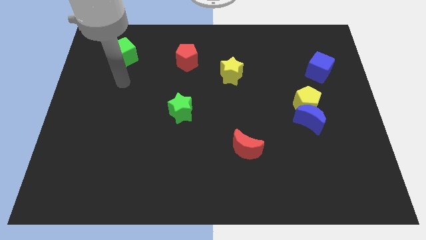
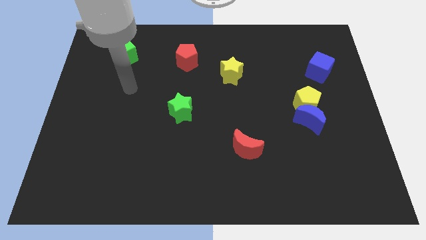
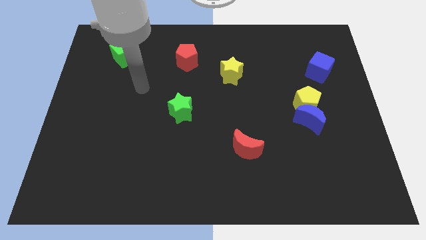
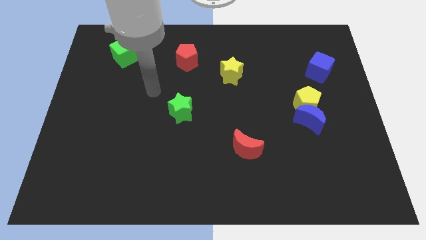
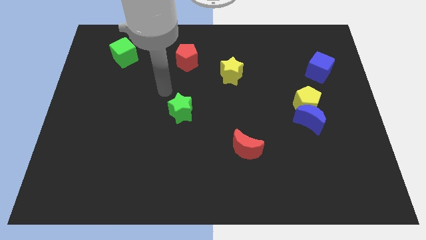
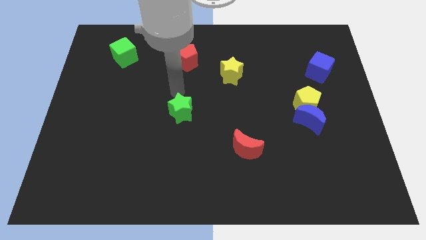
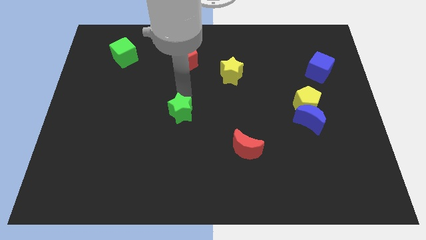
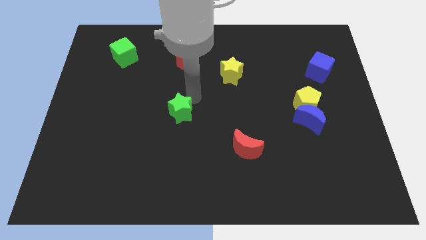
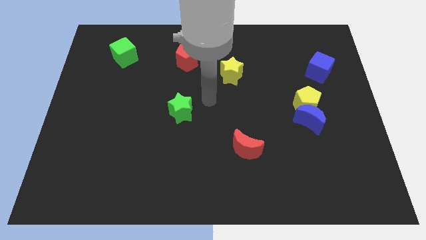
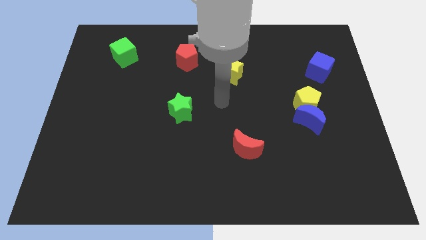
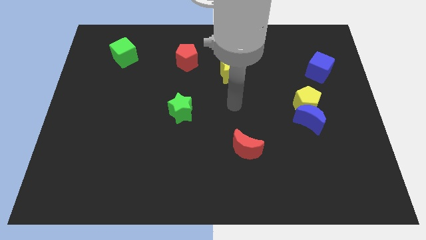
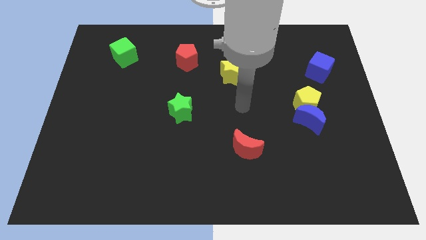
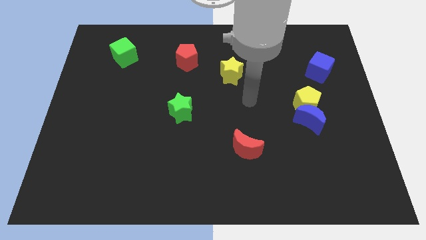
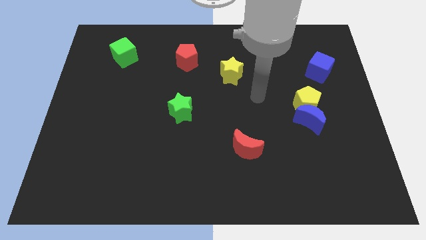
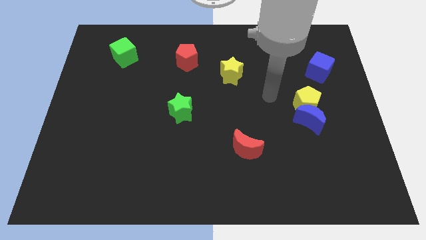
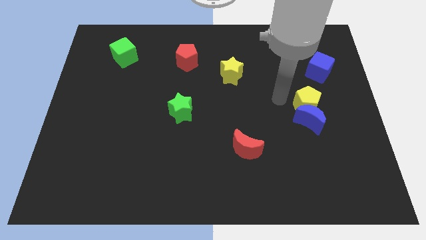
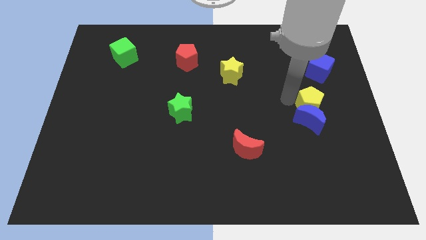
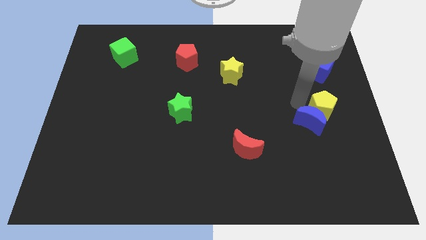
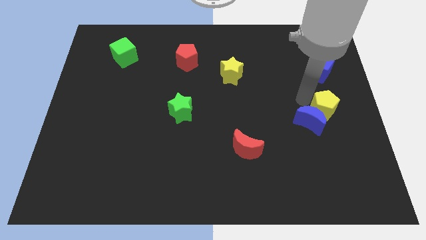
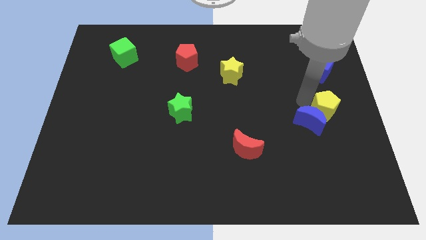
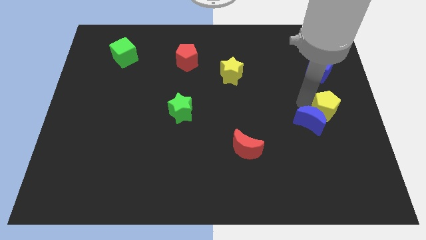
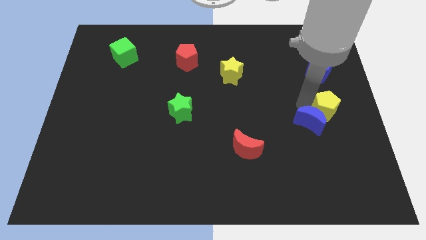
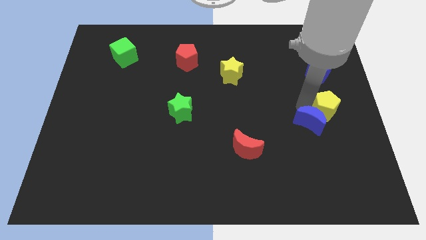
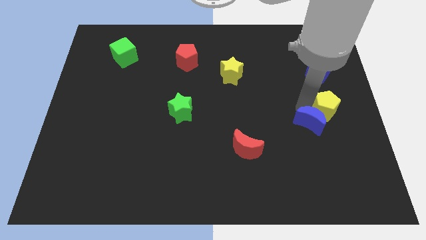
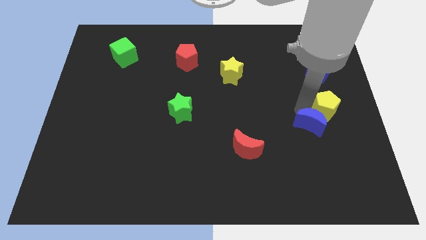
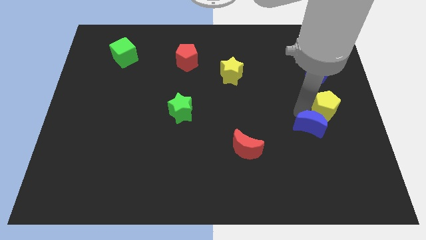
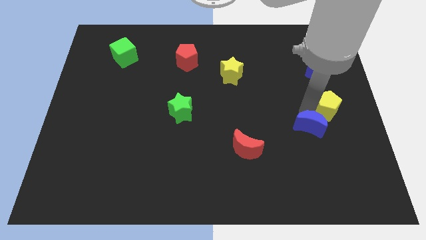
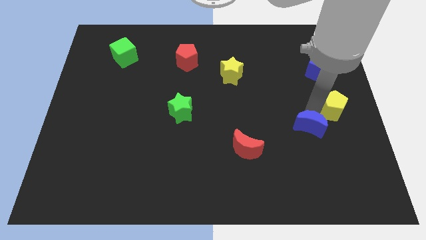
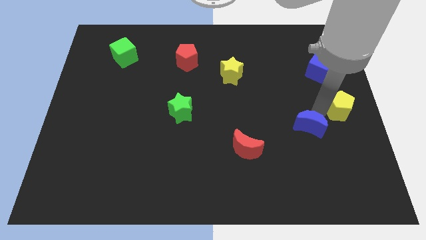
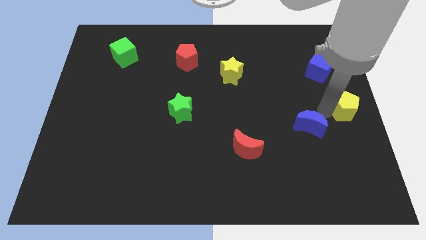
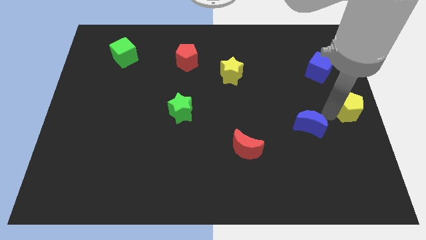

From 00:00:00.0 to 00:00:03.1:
pull the blue moon apart from the yellow pentagon

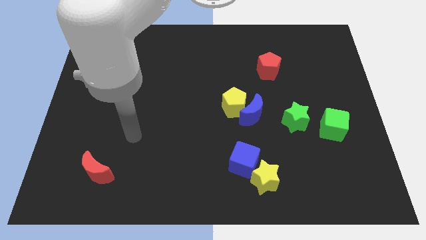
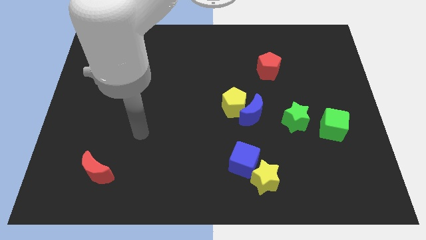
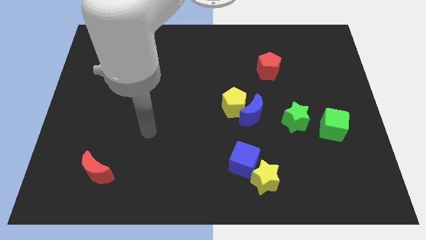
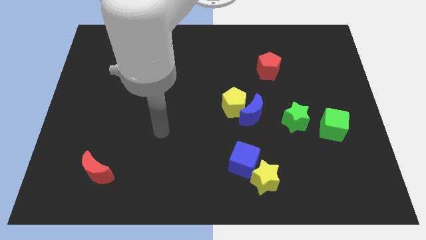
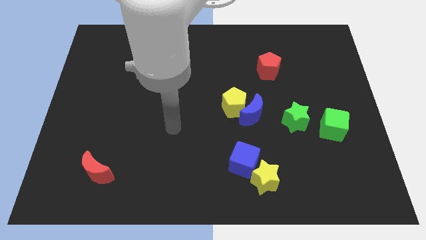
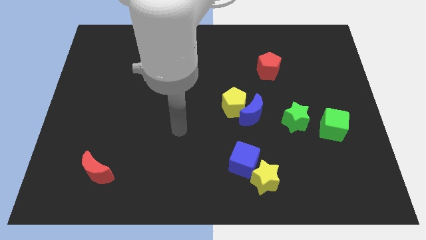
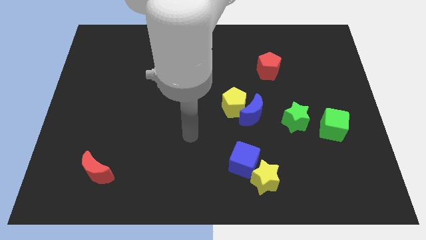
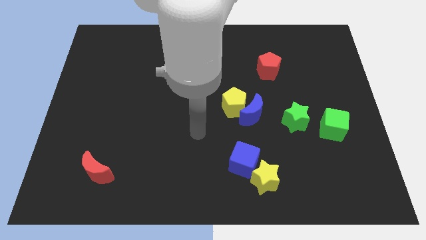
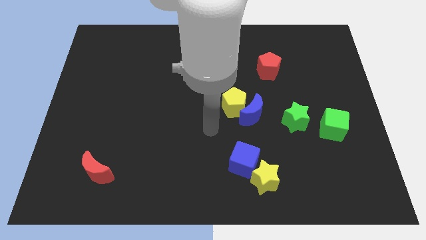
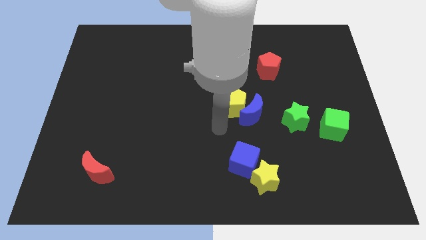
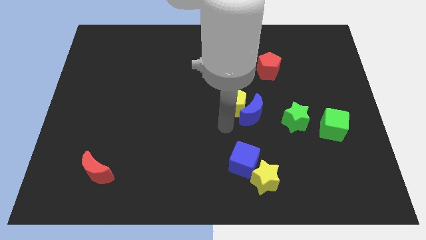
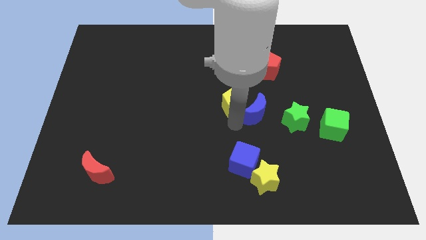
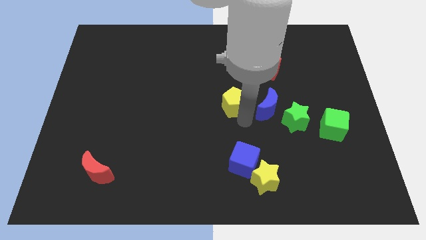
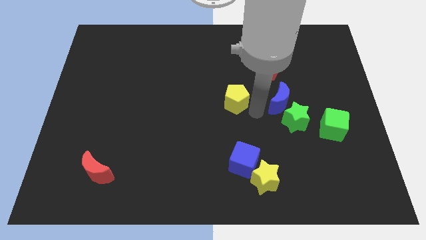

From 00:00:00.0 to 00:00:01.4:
move the yellow pentagon away from the blue moon

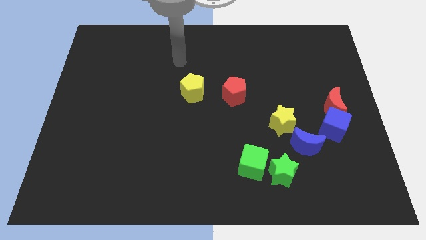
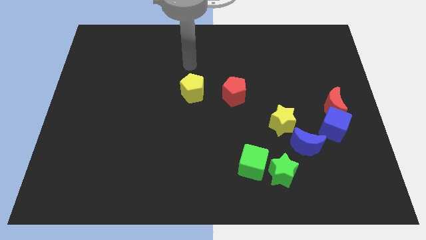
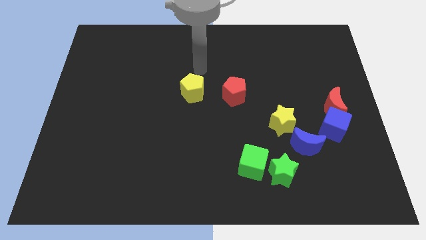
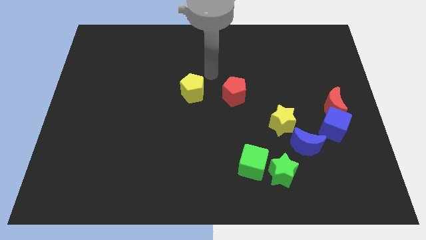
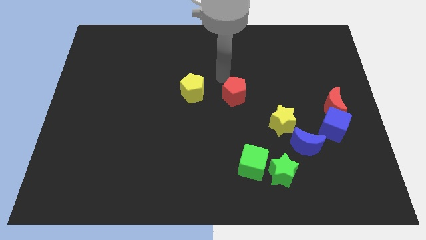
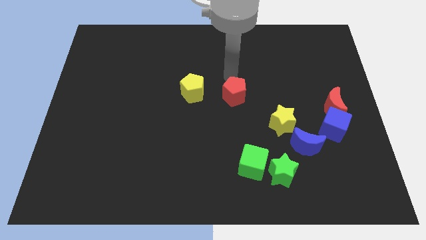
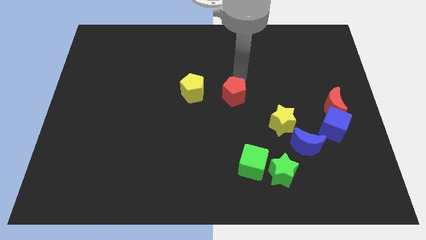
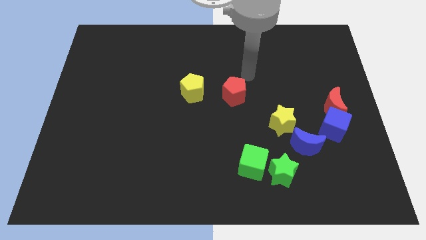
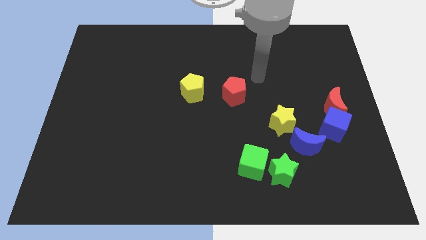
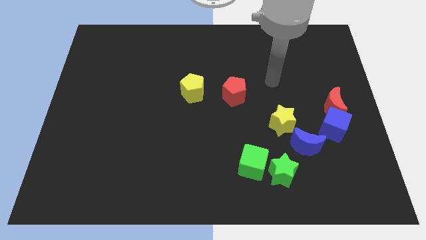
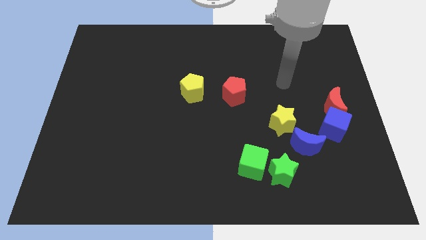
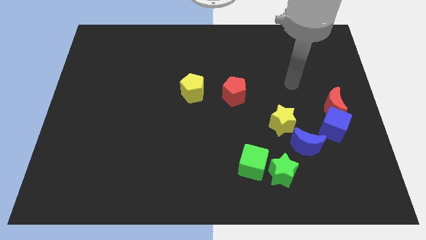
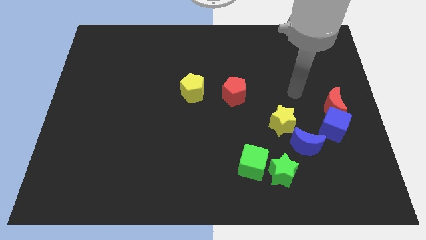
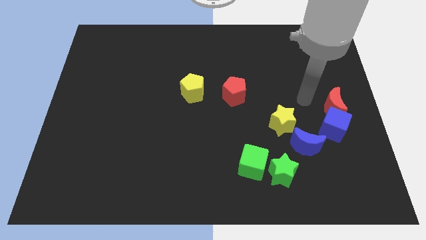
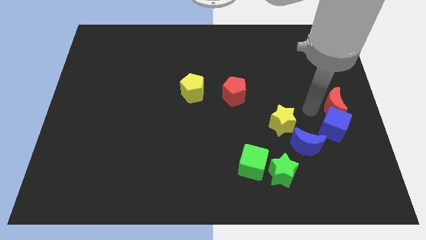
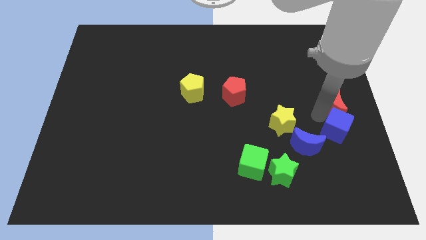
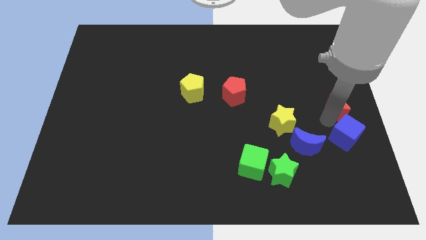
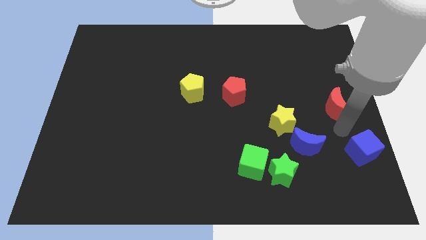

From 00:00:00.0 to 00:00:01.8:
separate the red moon from the blue cube

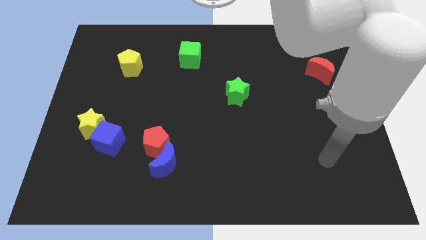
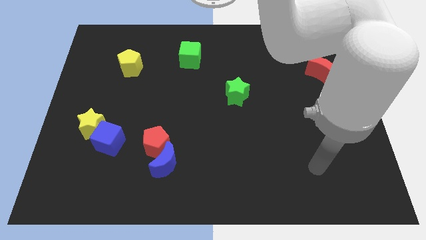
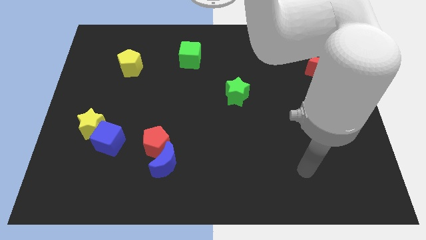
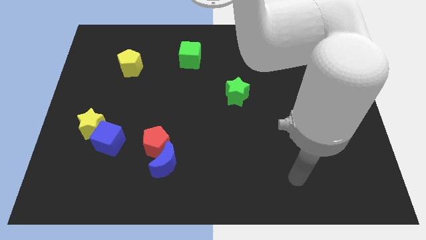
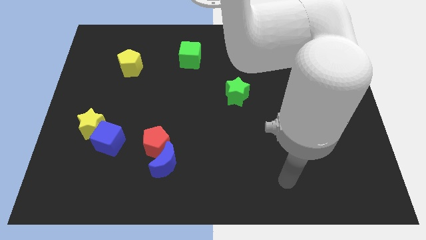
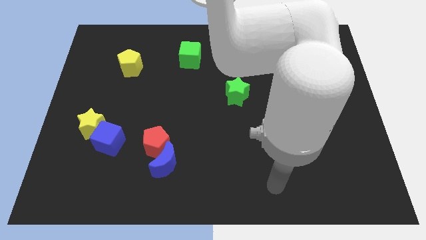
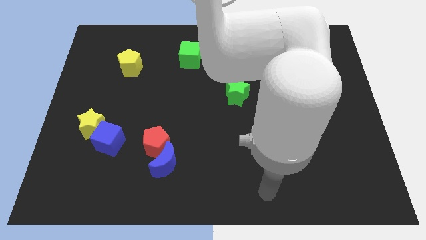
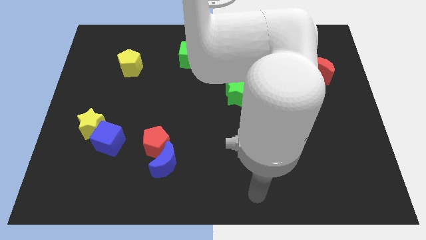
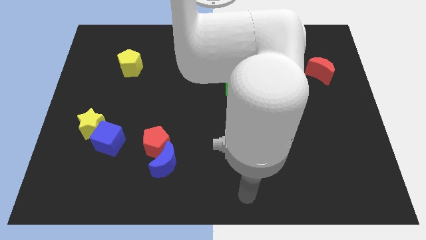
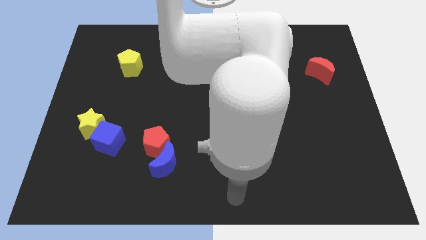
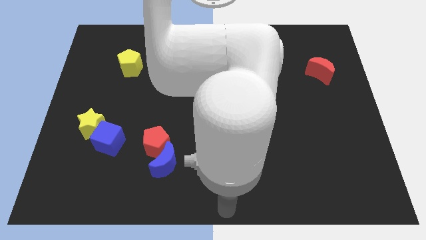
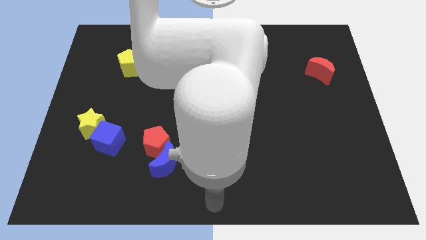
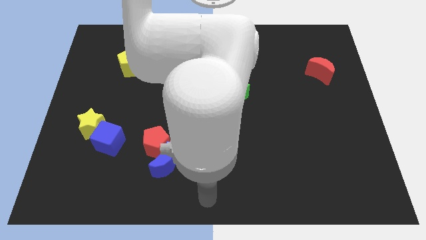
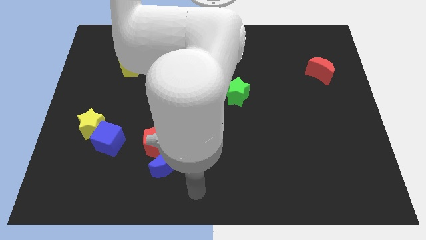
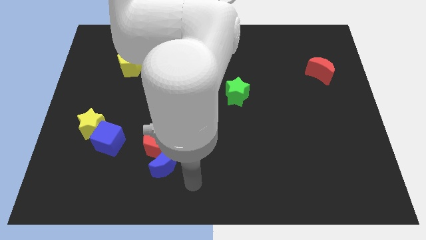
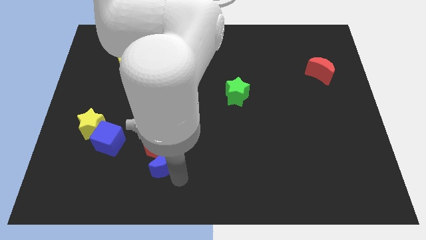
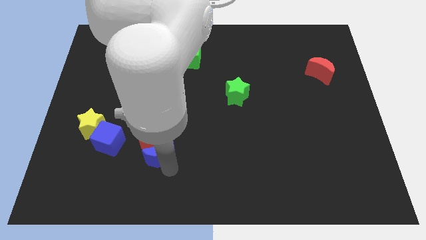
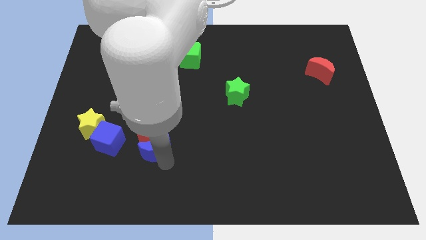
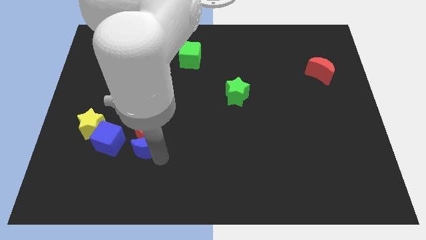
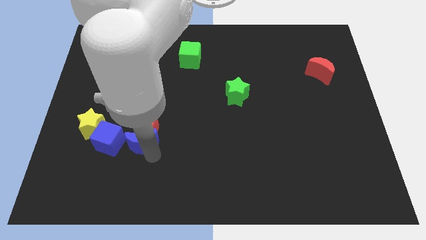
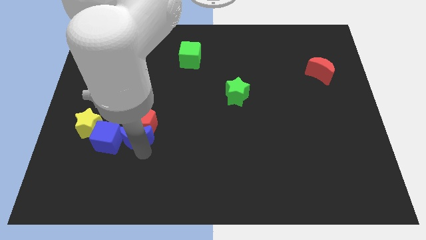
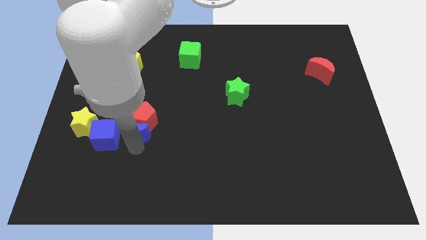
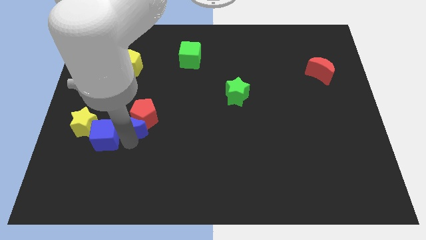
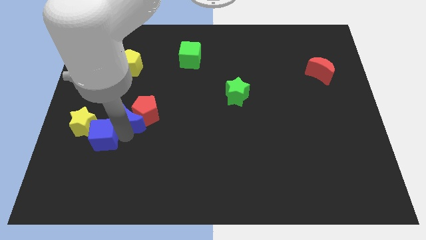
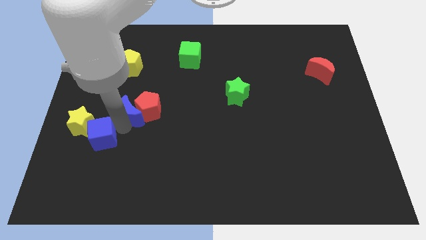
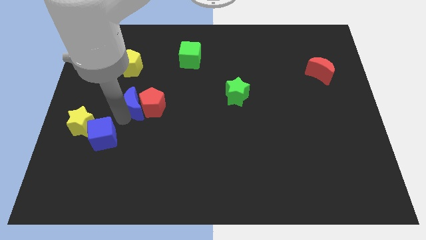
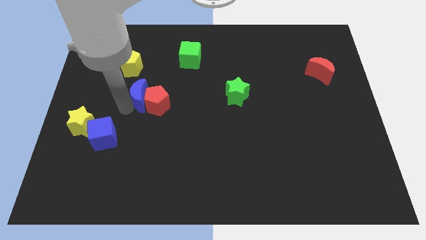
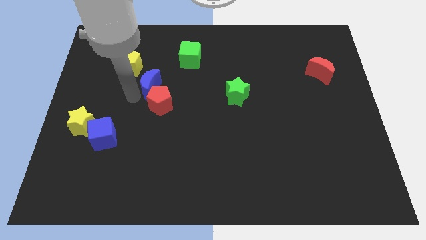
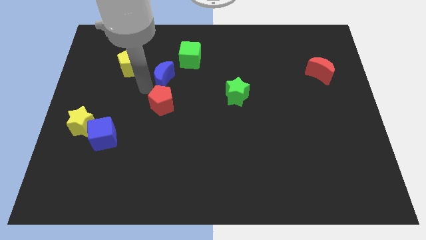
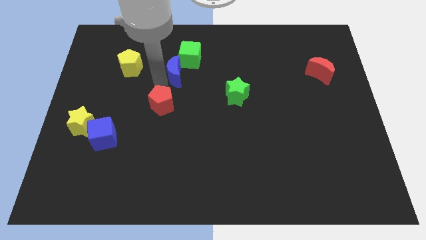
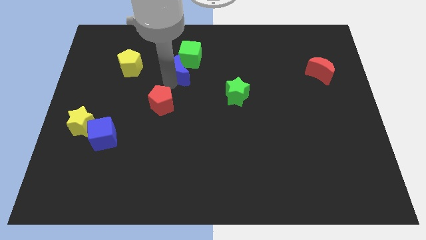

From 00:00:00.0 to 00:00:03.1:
move the red pentagon away from the blue moon

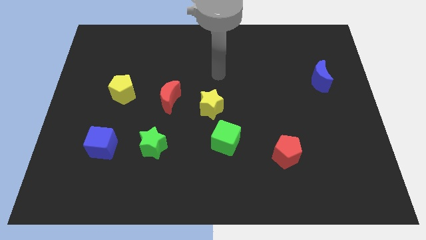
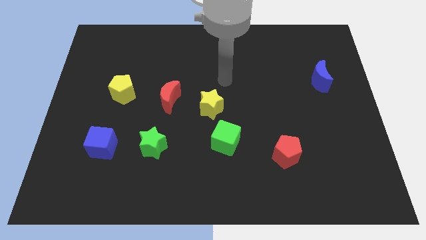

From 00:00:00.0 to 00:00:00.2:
move the green cube away from the yellow star
